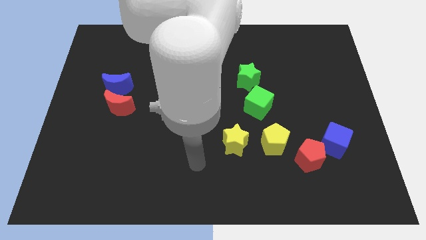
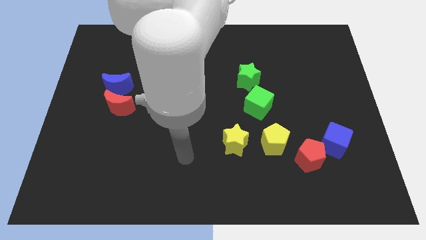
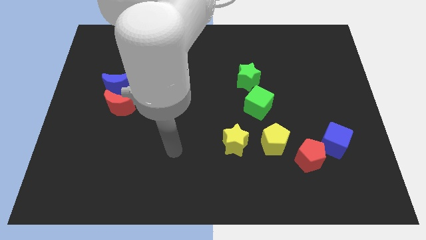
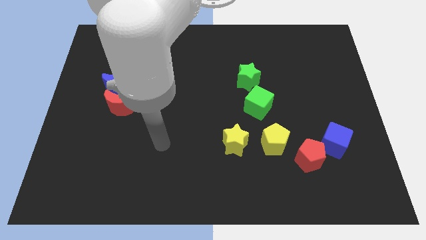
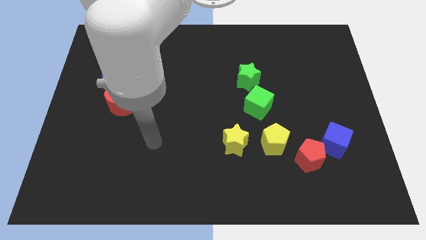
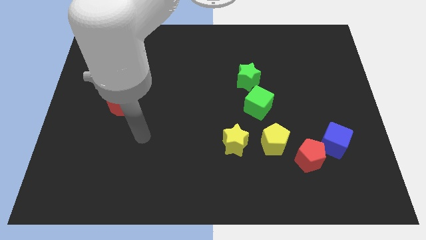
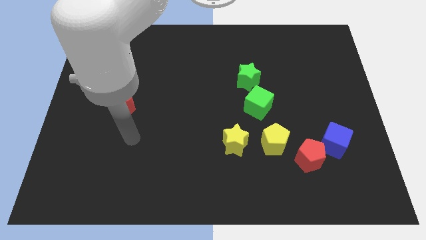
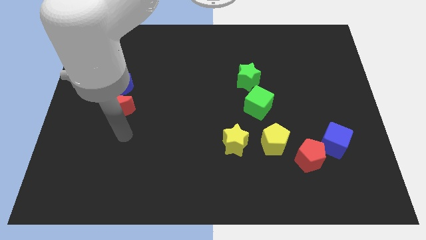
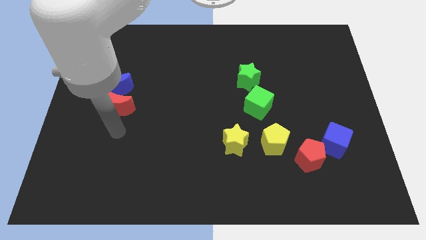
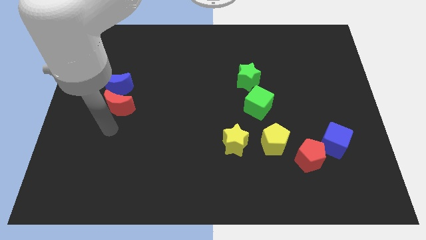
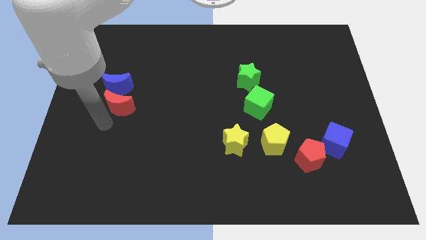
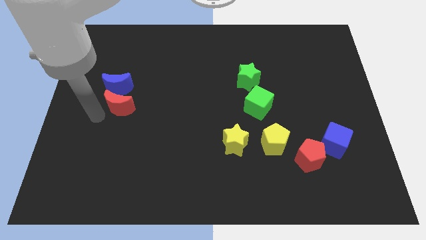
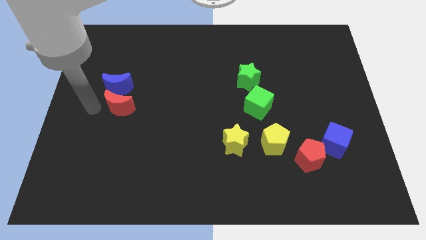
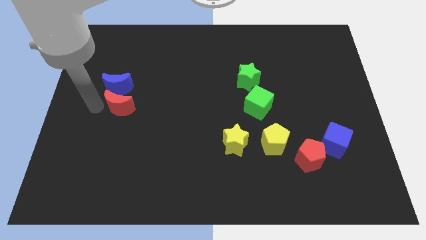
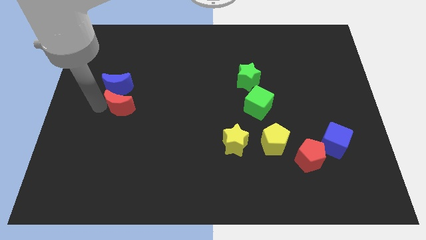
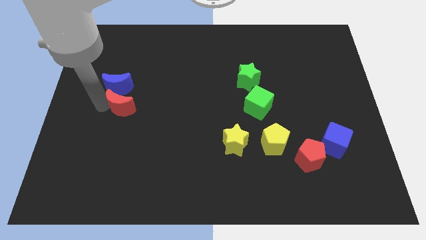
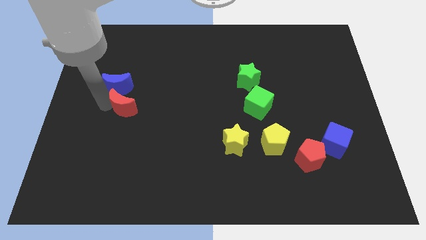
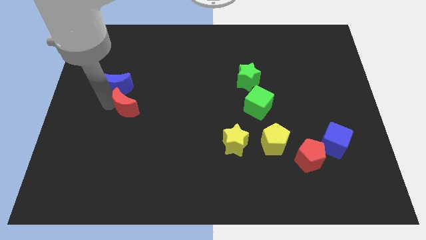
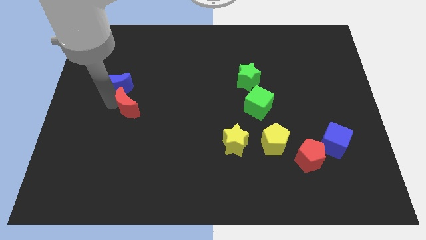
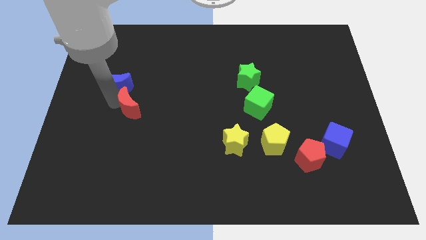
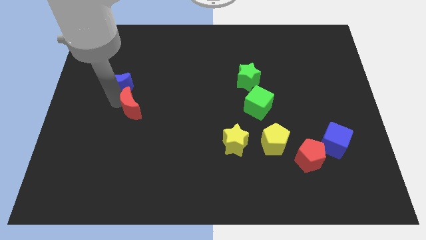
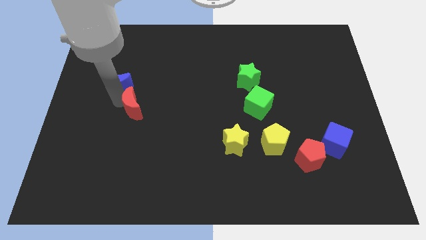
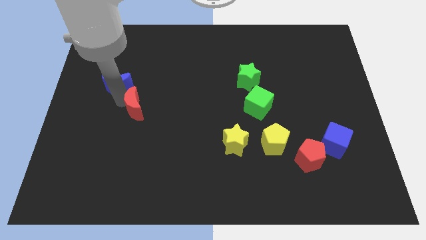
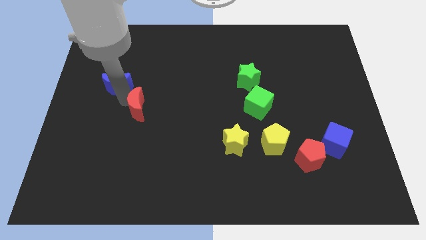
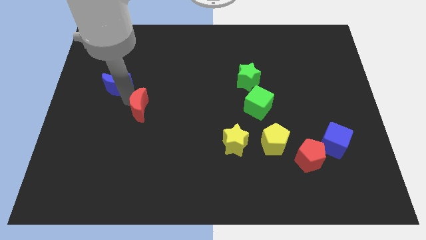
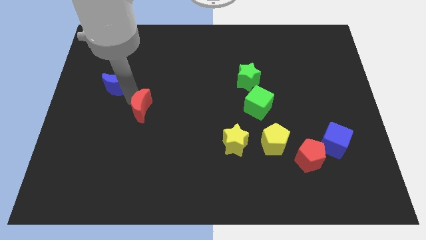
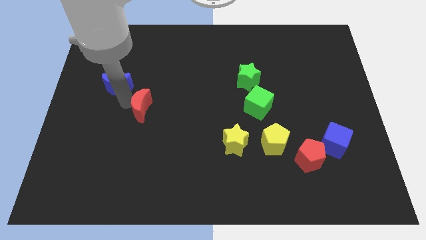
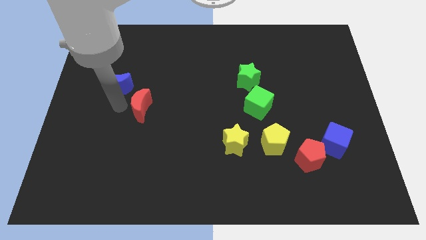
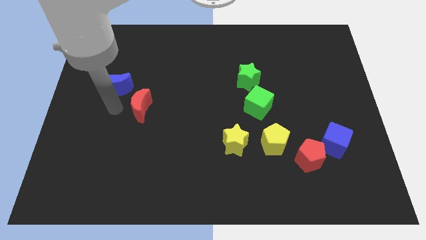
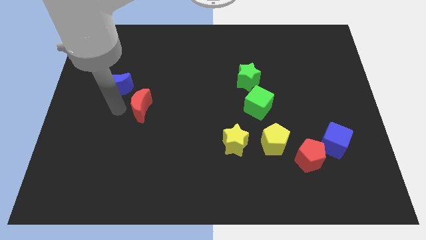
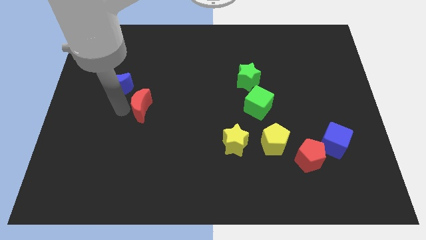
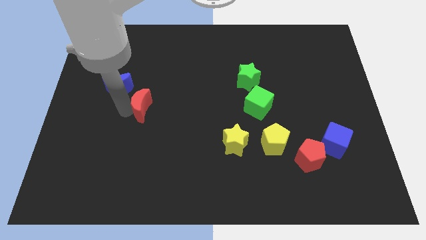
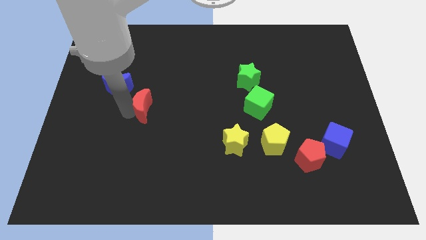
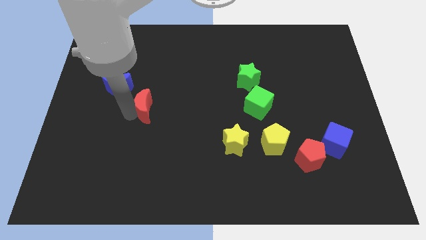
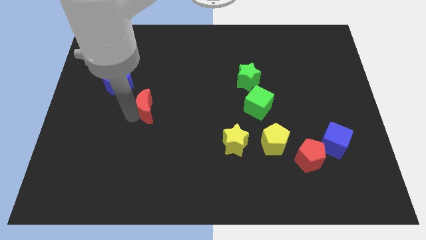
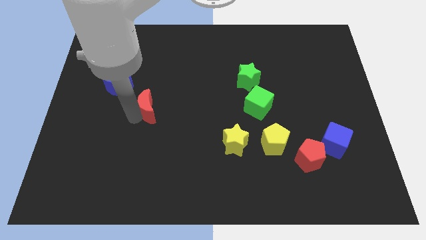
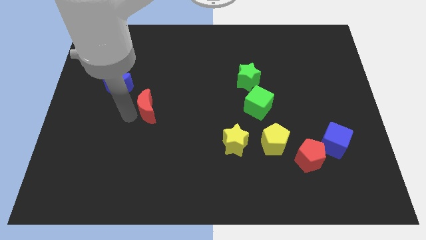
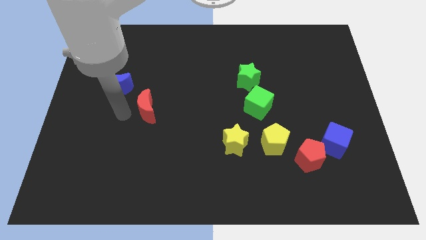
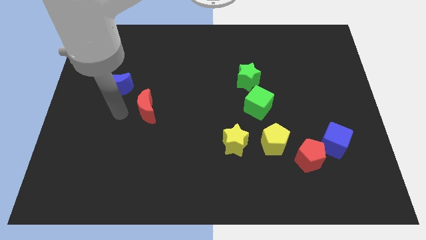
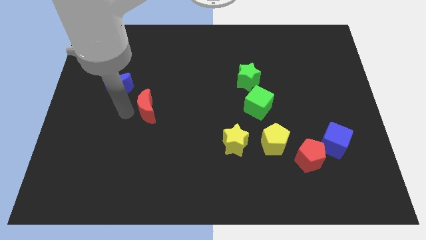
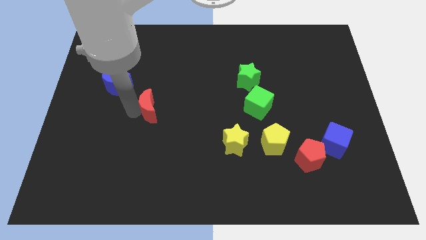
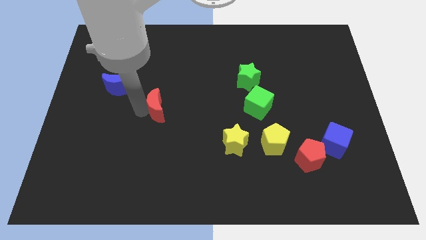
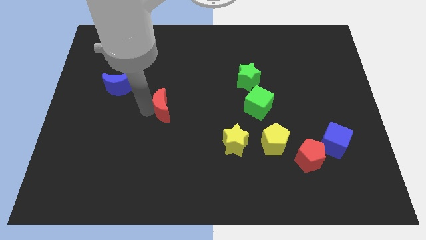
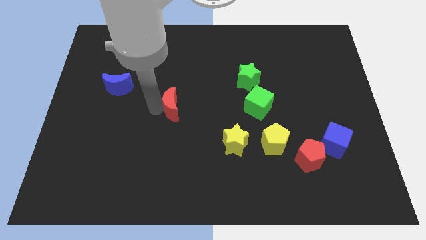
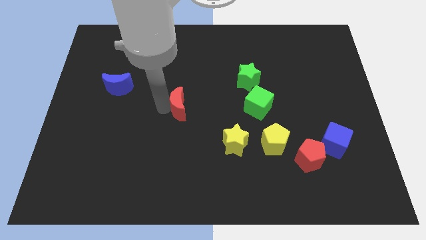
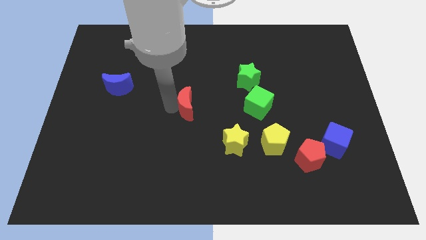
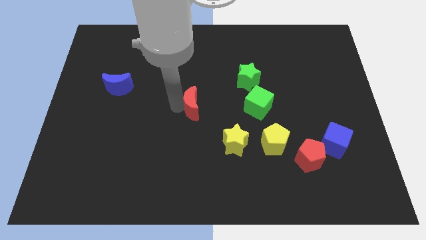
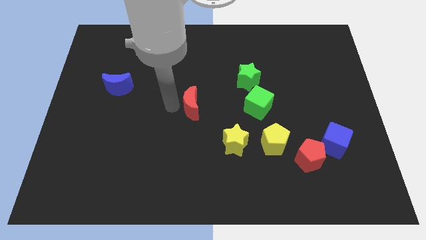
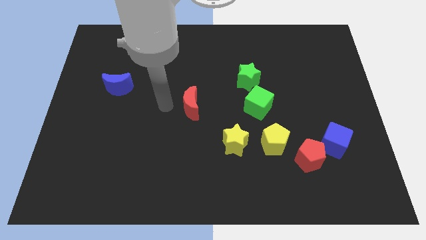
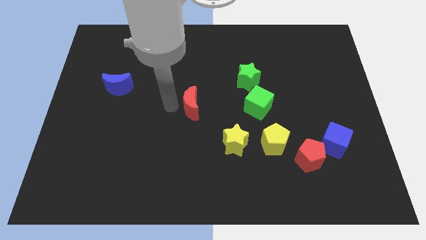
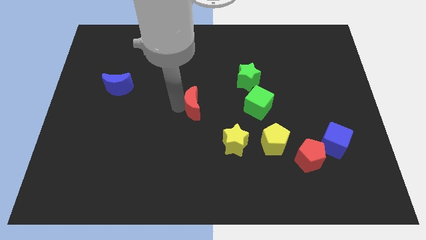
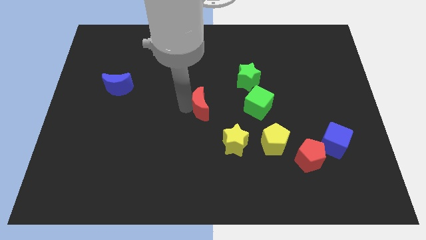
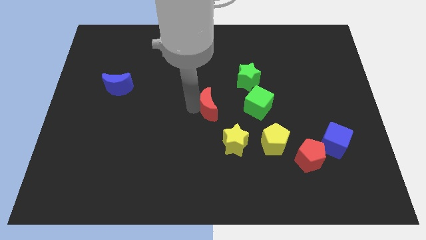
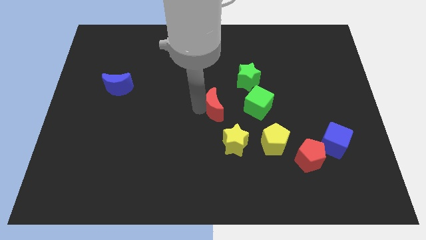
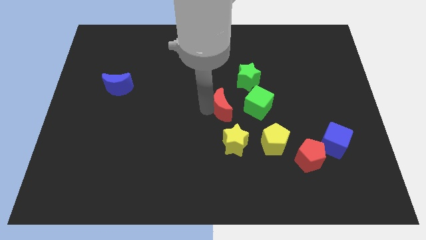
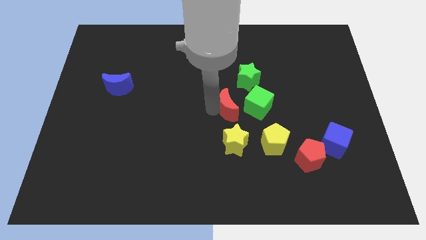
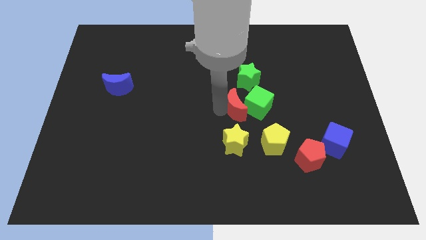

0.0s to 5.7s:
push the red moon to the green cube
